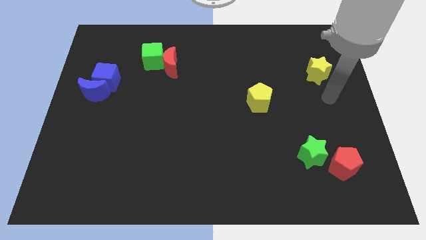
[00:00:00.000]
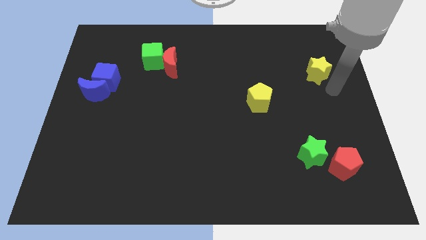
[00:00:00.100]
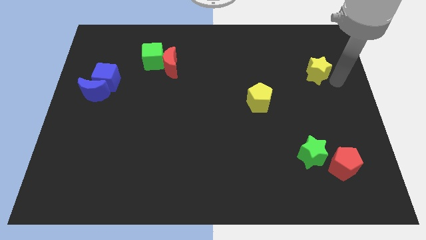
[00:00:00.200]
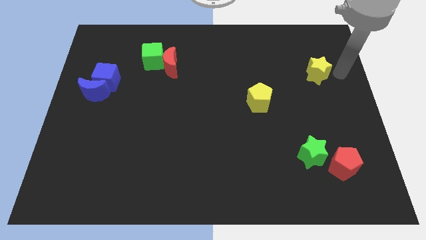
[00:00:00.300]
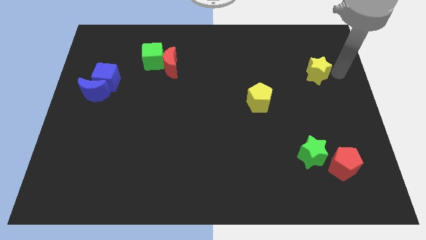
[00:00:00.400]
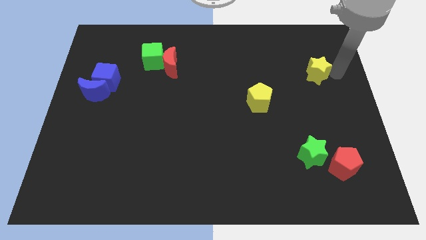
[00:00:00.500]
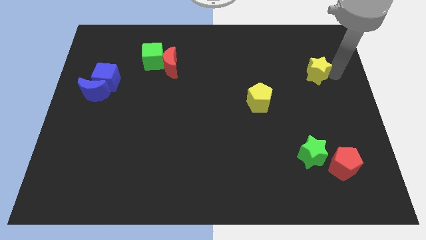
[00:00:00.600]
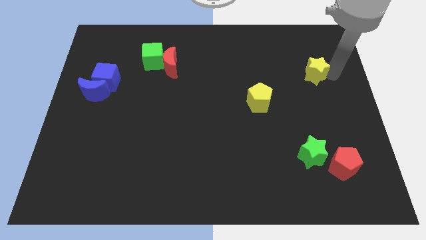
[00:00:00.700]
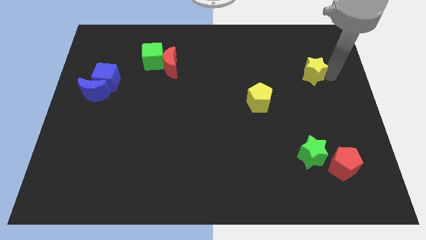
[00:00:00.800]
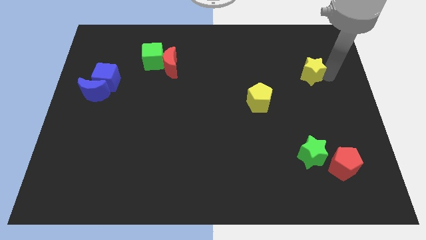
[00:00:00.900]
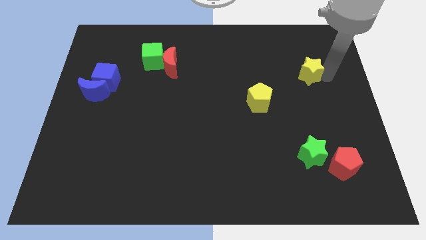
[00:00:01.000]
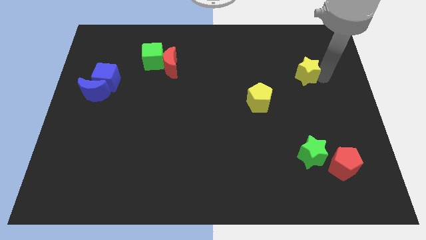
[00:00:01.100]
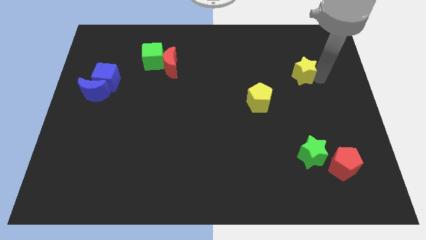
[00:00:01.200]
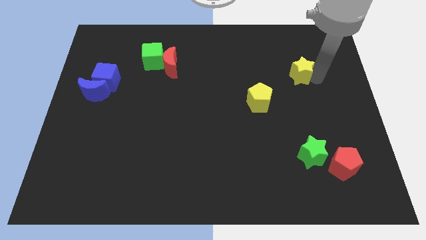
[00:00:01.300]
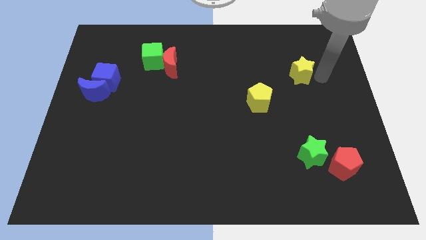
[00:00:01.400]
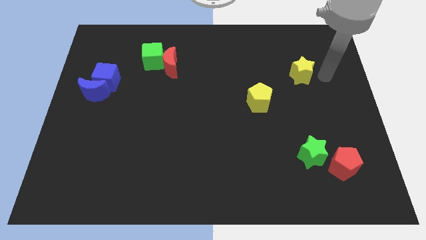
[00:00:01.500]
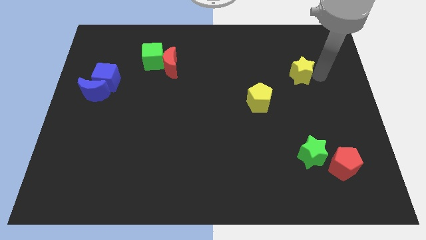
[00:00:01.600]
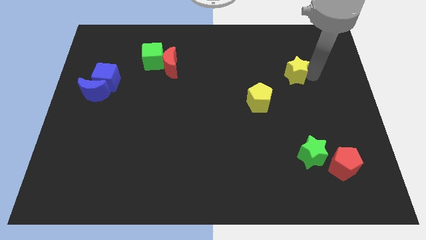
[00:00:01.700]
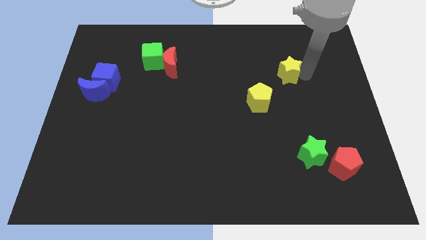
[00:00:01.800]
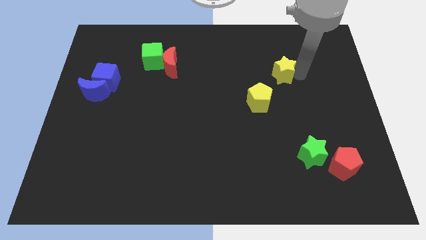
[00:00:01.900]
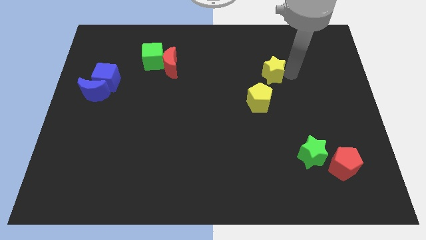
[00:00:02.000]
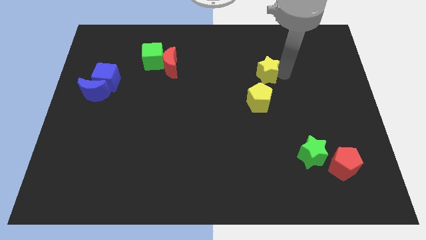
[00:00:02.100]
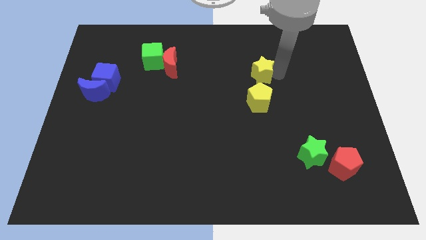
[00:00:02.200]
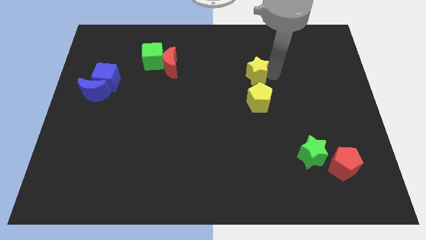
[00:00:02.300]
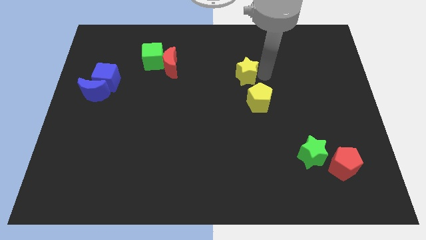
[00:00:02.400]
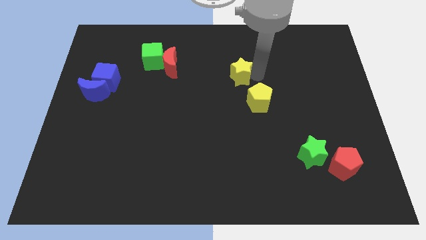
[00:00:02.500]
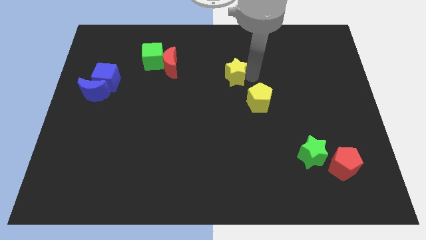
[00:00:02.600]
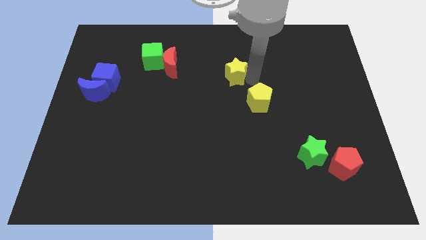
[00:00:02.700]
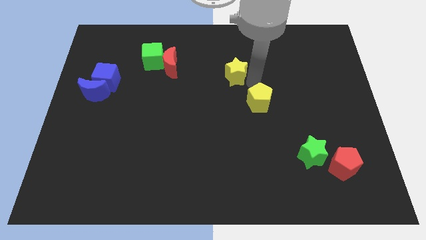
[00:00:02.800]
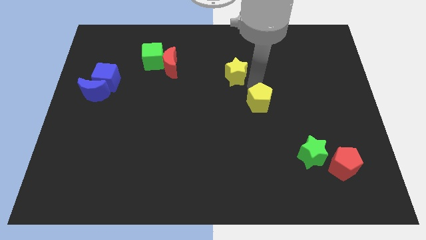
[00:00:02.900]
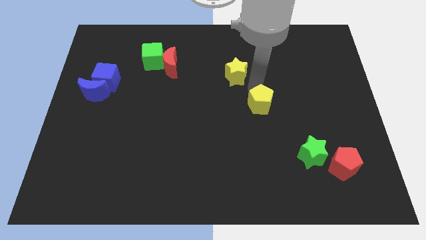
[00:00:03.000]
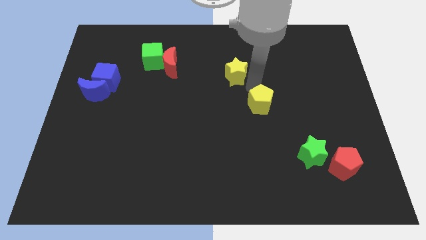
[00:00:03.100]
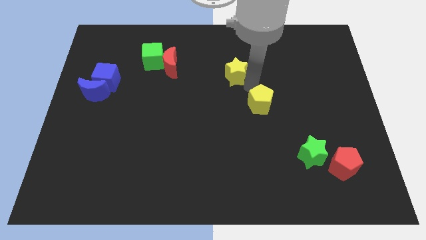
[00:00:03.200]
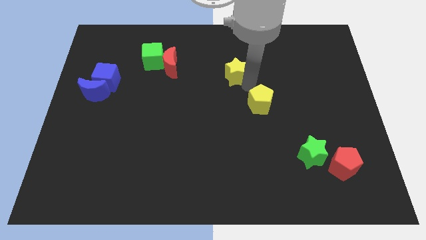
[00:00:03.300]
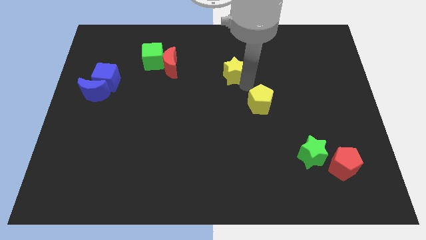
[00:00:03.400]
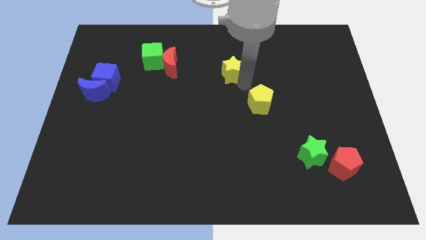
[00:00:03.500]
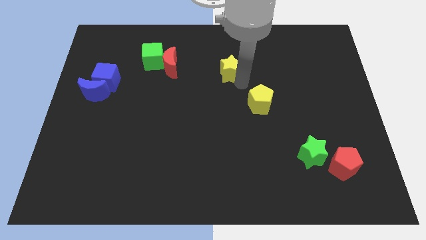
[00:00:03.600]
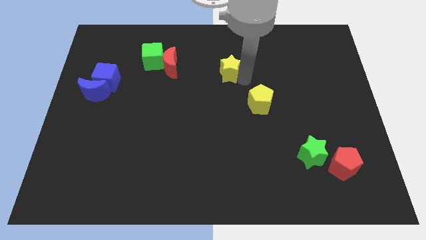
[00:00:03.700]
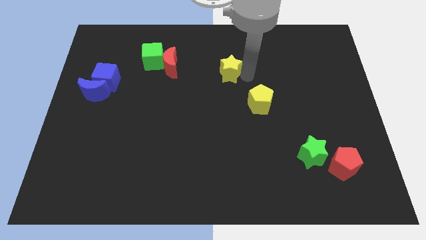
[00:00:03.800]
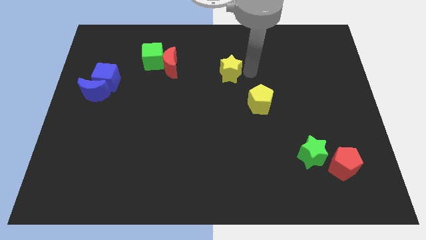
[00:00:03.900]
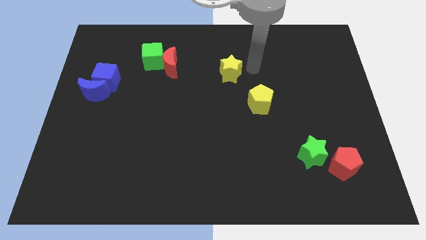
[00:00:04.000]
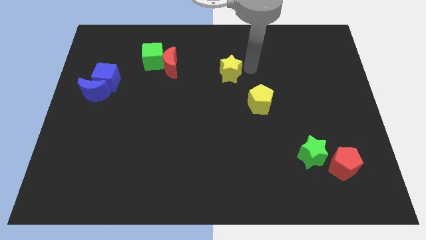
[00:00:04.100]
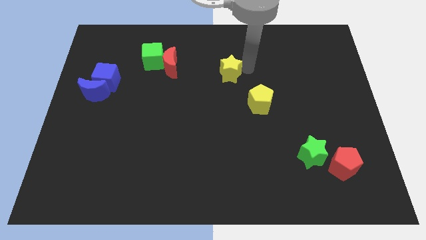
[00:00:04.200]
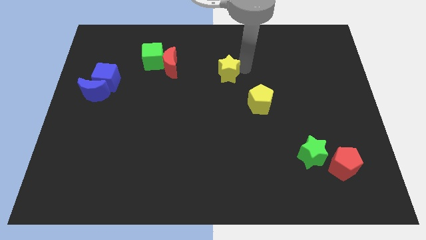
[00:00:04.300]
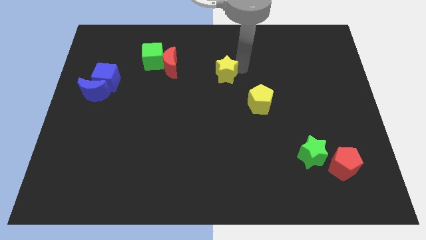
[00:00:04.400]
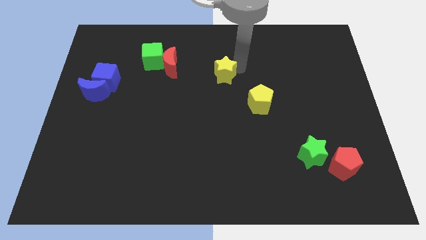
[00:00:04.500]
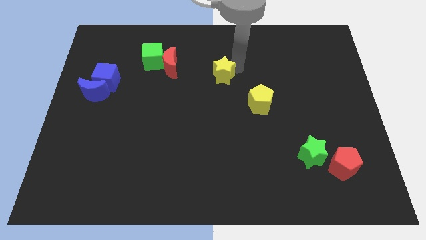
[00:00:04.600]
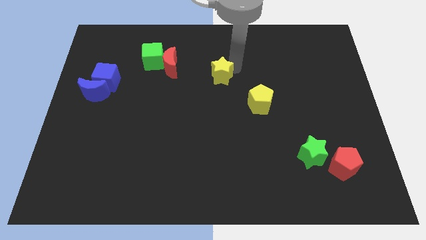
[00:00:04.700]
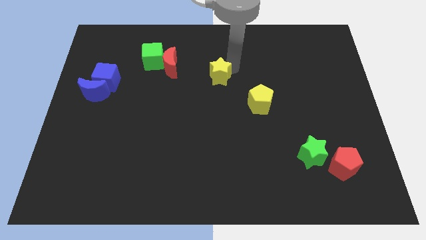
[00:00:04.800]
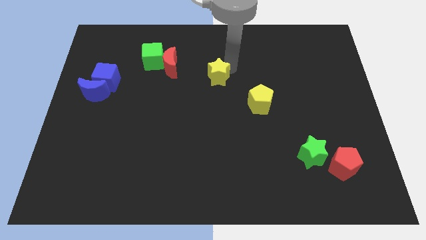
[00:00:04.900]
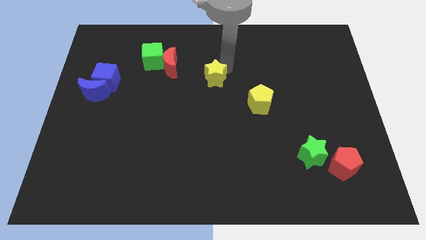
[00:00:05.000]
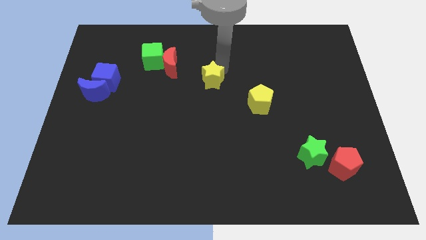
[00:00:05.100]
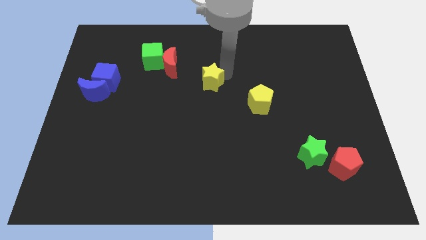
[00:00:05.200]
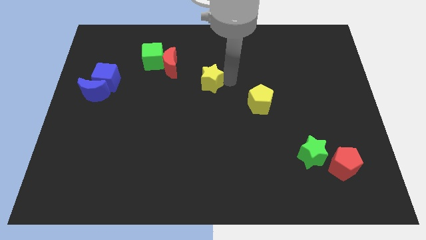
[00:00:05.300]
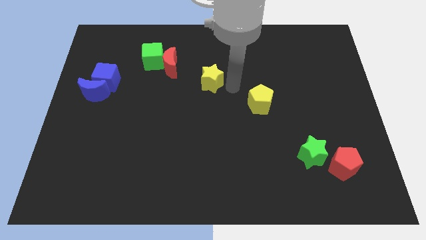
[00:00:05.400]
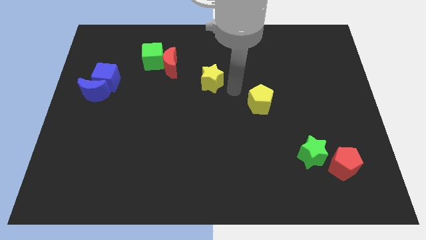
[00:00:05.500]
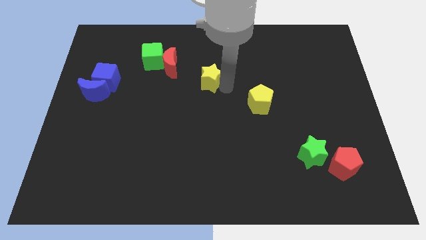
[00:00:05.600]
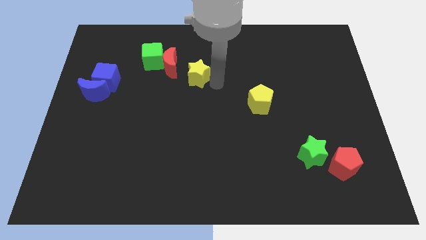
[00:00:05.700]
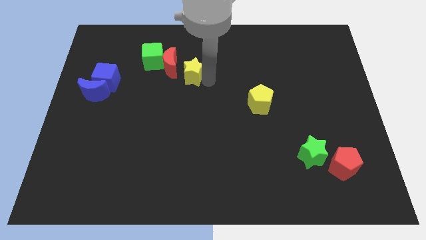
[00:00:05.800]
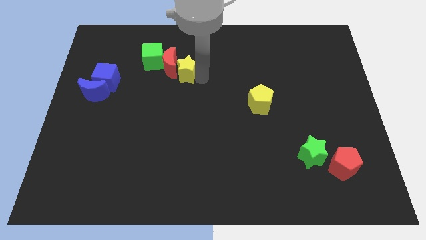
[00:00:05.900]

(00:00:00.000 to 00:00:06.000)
push the yellow star towards the red moon
